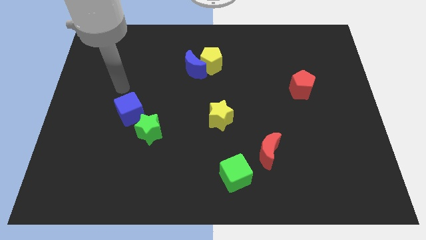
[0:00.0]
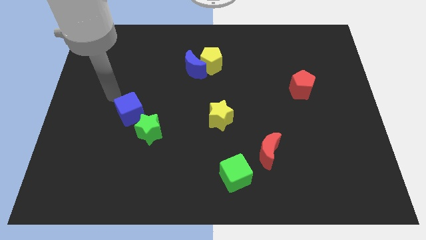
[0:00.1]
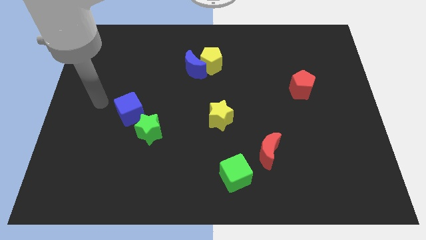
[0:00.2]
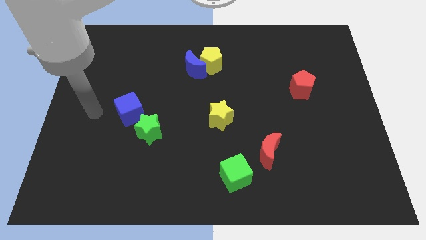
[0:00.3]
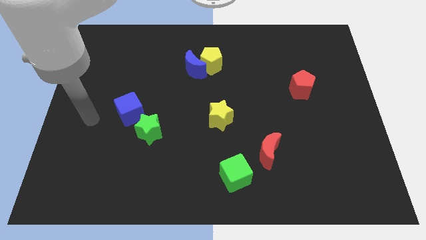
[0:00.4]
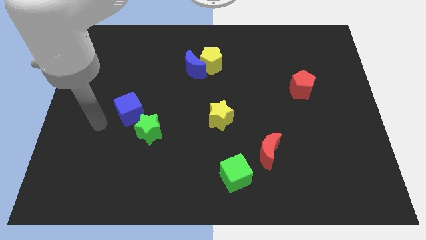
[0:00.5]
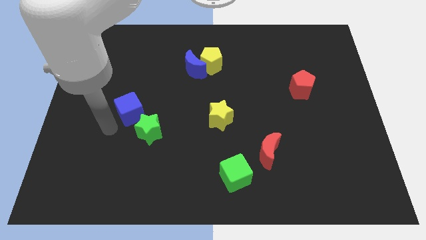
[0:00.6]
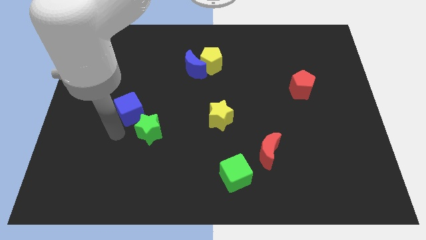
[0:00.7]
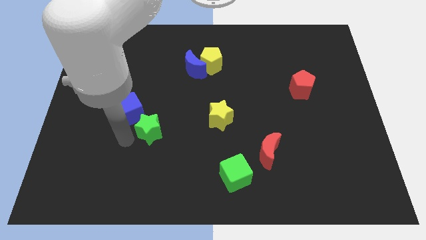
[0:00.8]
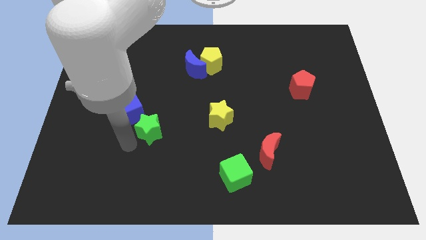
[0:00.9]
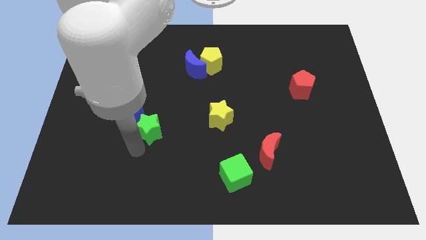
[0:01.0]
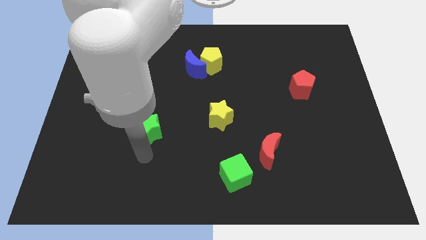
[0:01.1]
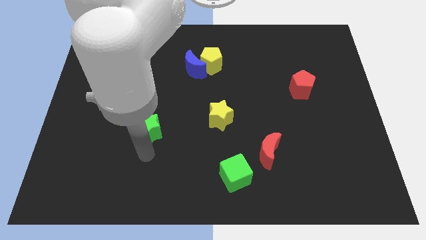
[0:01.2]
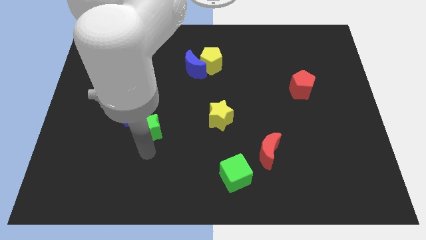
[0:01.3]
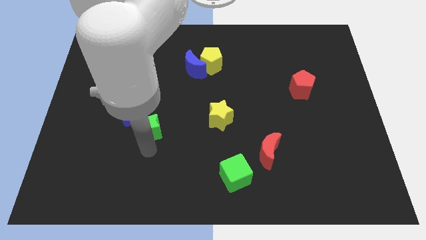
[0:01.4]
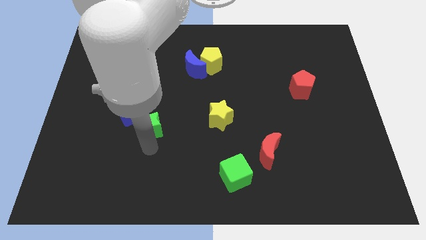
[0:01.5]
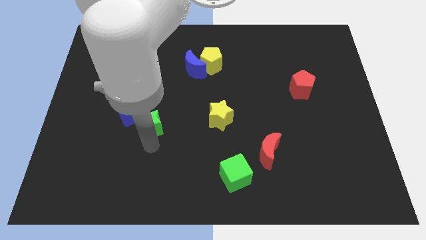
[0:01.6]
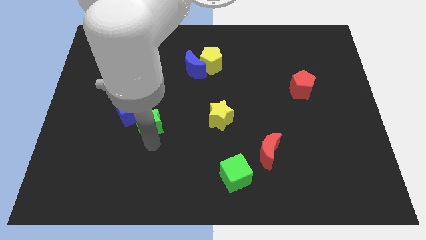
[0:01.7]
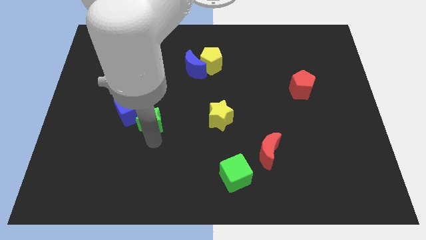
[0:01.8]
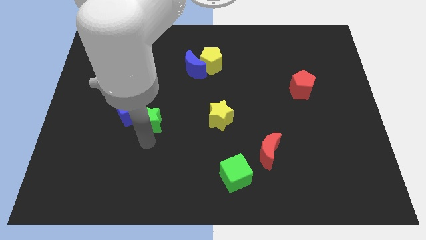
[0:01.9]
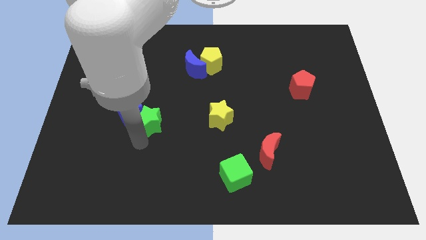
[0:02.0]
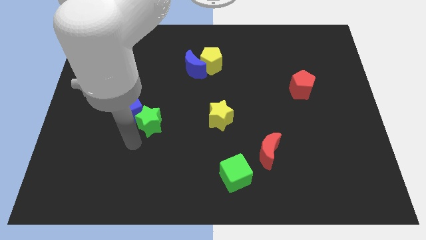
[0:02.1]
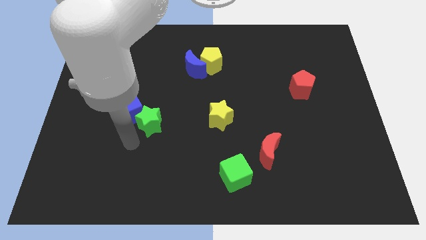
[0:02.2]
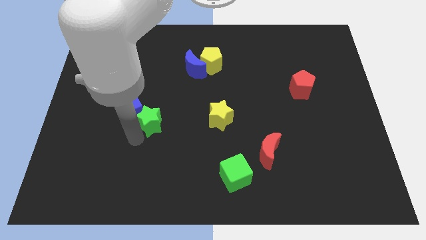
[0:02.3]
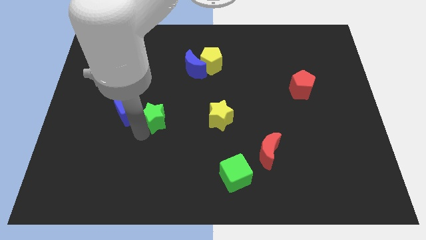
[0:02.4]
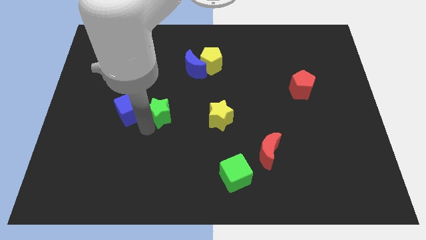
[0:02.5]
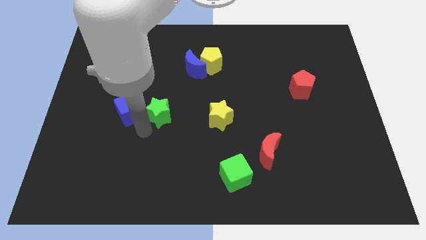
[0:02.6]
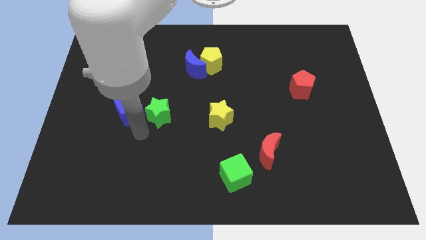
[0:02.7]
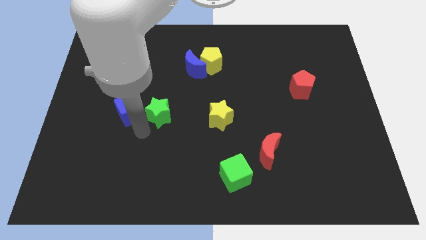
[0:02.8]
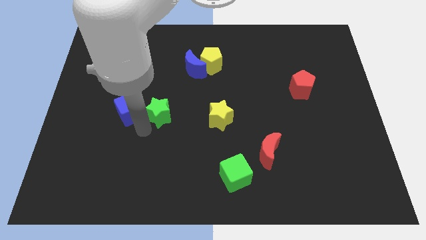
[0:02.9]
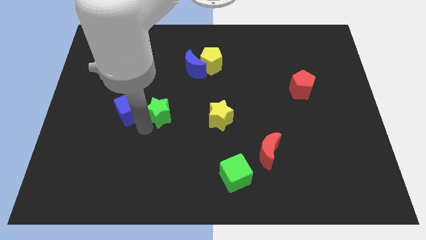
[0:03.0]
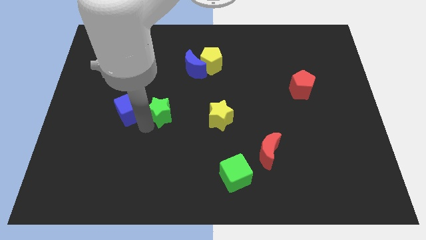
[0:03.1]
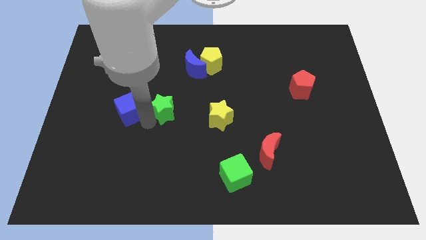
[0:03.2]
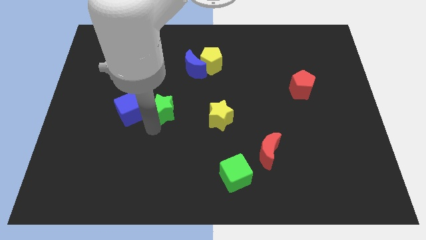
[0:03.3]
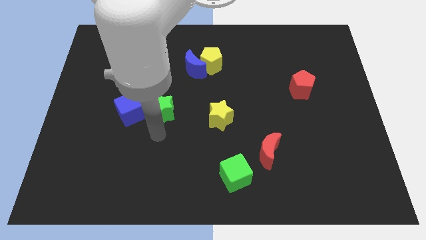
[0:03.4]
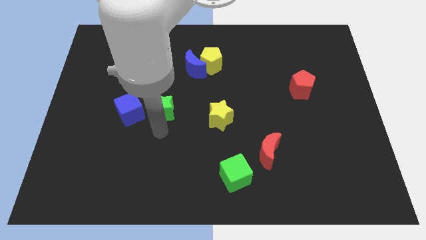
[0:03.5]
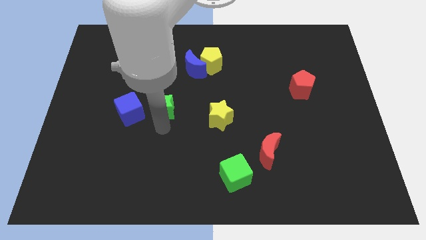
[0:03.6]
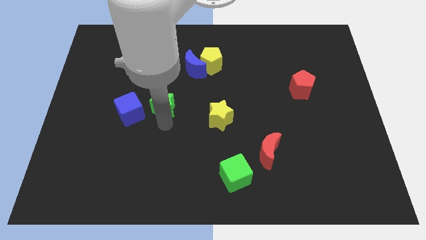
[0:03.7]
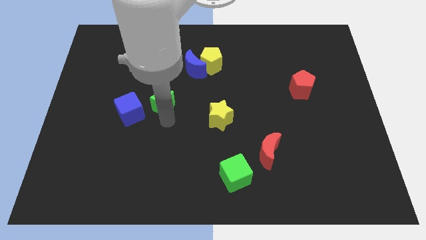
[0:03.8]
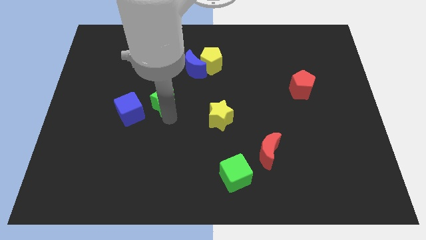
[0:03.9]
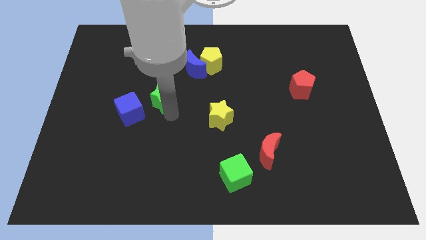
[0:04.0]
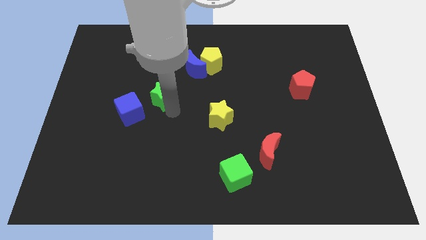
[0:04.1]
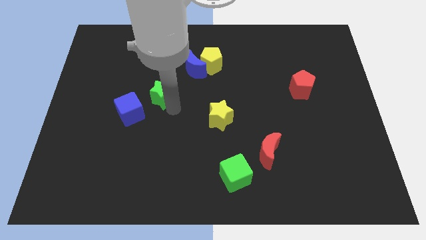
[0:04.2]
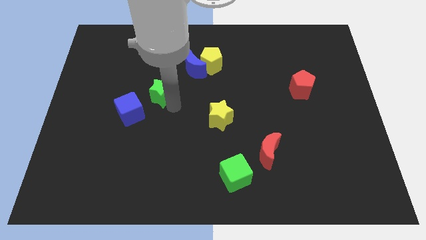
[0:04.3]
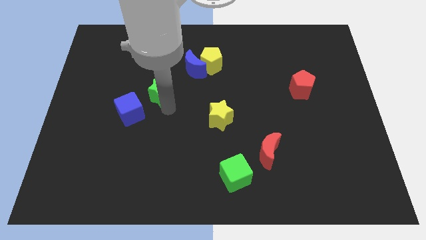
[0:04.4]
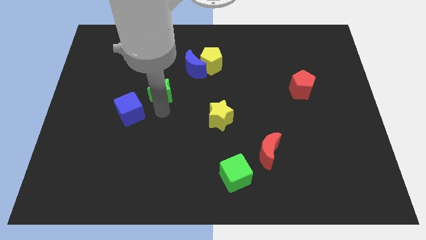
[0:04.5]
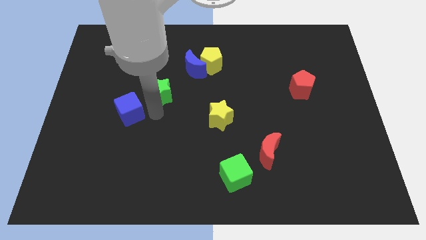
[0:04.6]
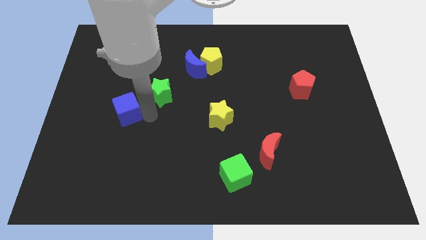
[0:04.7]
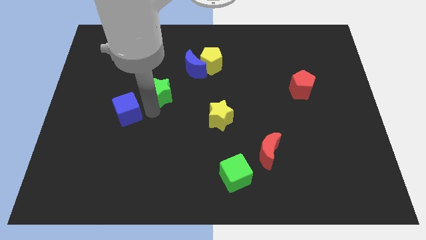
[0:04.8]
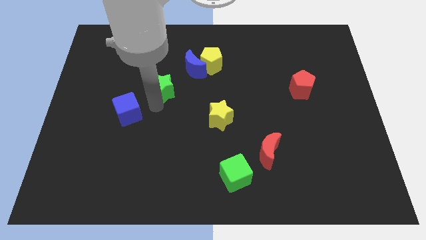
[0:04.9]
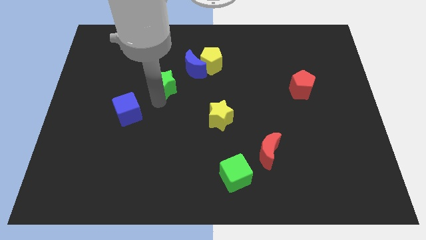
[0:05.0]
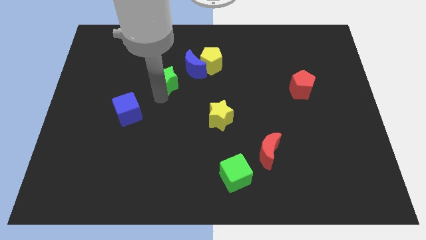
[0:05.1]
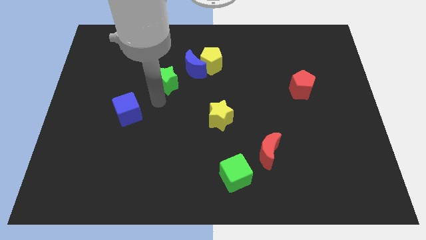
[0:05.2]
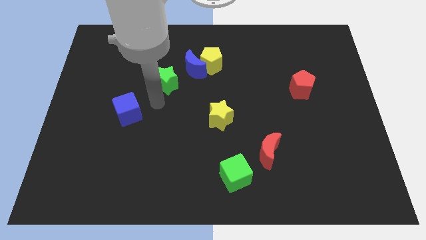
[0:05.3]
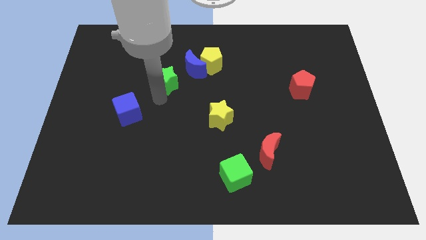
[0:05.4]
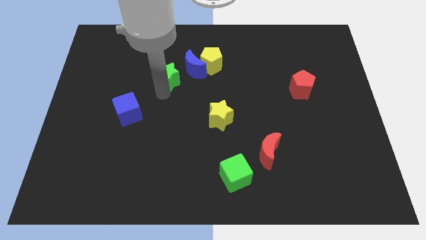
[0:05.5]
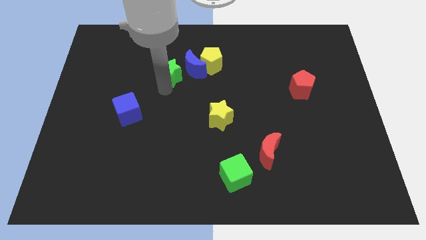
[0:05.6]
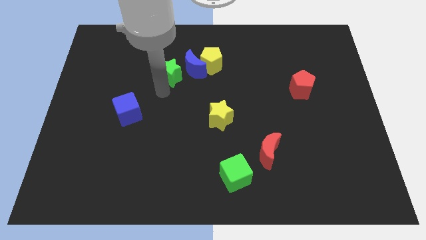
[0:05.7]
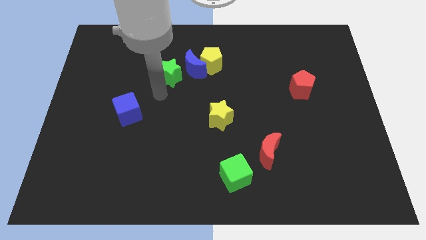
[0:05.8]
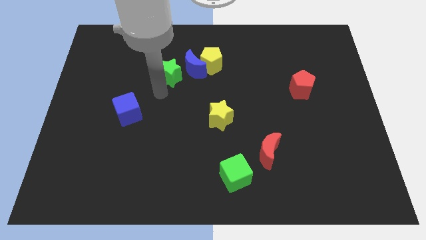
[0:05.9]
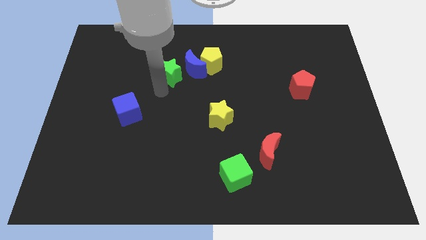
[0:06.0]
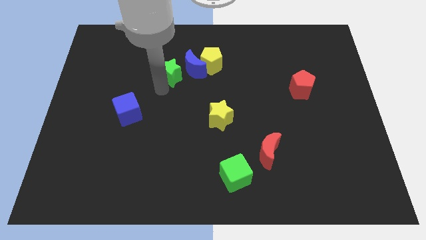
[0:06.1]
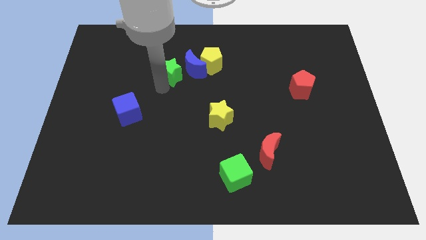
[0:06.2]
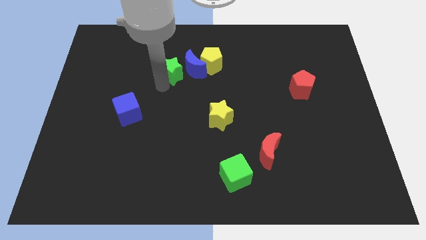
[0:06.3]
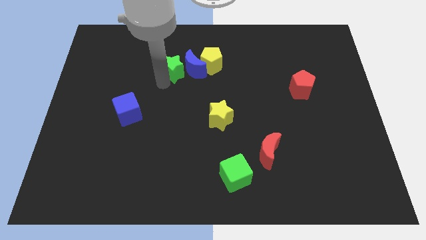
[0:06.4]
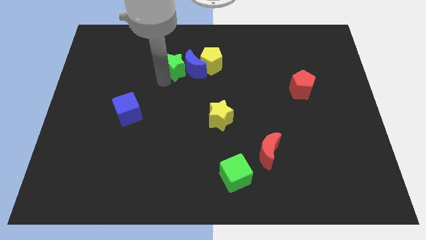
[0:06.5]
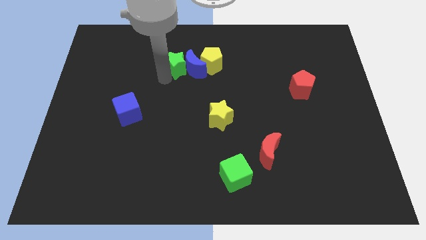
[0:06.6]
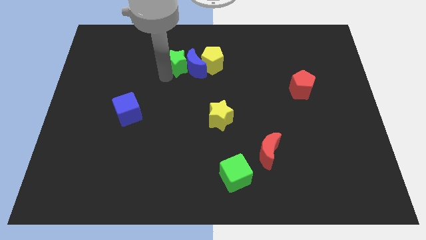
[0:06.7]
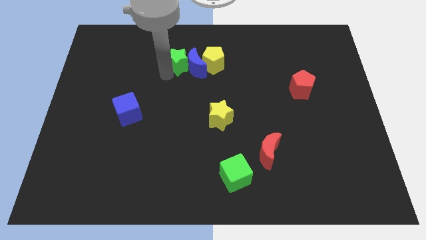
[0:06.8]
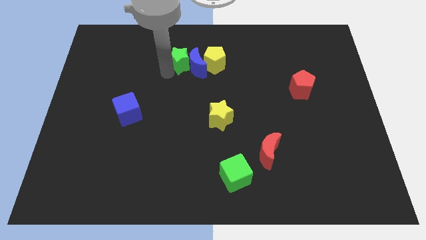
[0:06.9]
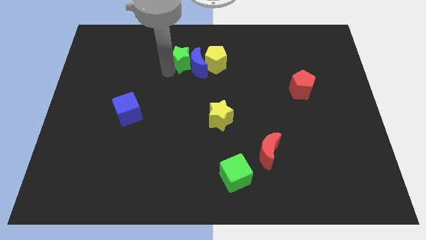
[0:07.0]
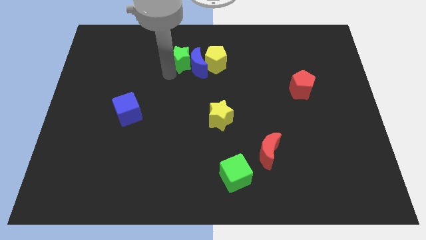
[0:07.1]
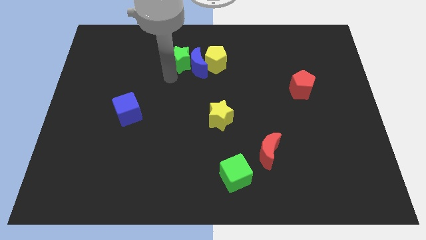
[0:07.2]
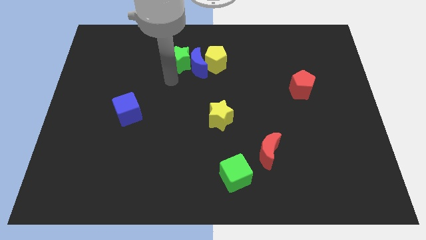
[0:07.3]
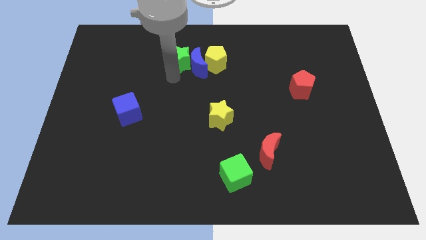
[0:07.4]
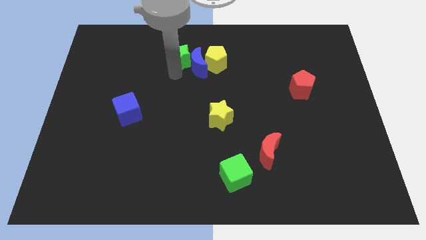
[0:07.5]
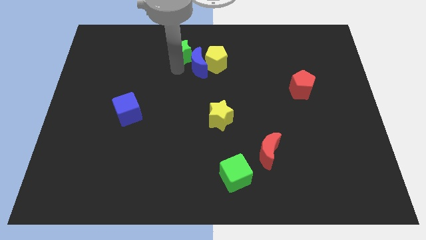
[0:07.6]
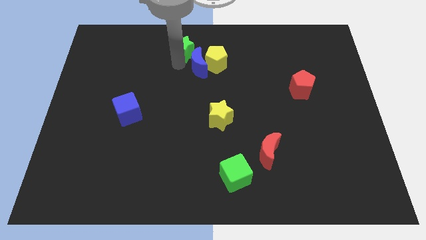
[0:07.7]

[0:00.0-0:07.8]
move the green star to the top side
